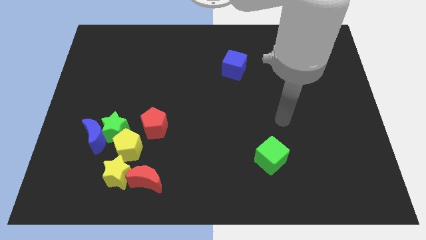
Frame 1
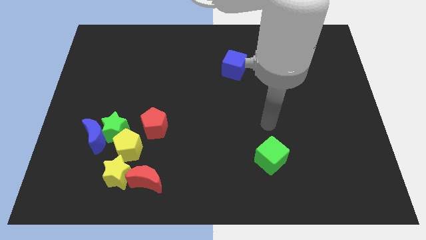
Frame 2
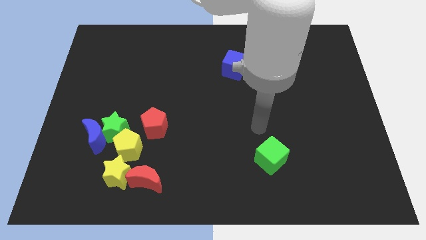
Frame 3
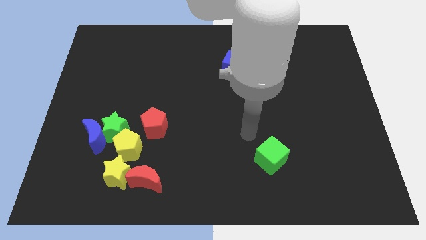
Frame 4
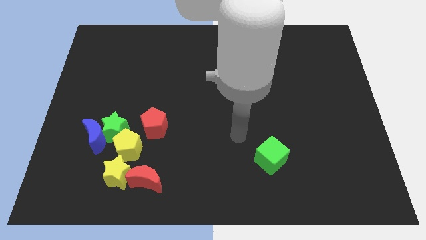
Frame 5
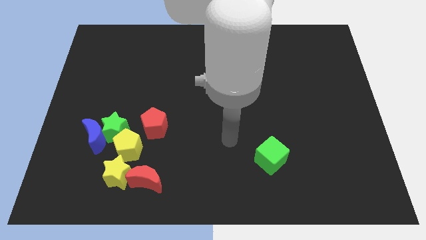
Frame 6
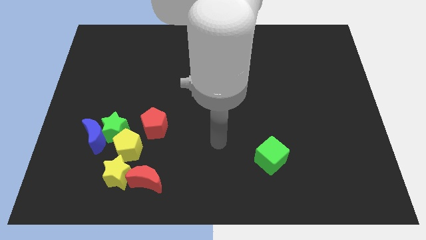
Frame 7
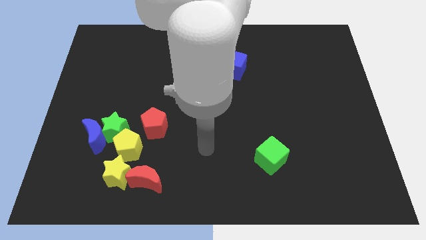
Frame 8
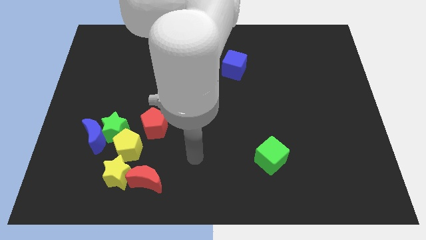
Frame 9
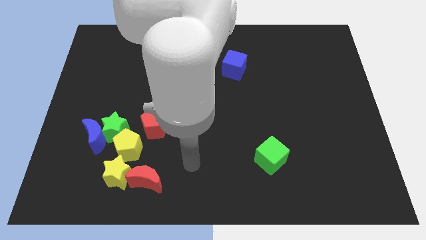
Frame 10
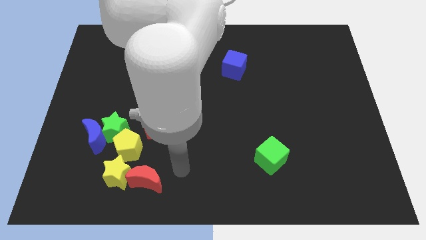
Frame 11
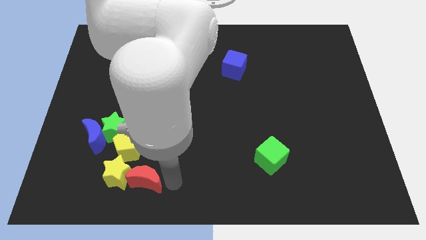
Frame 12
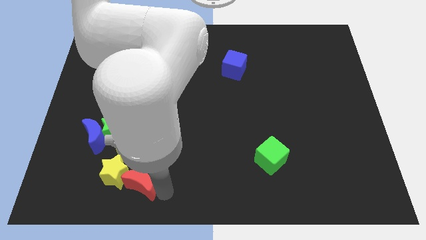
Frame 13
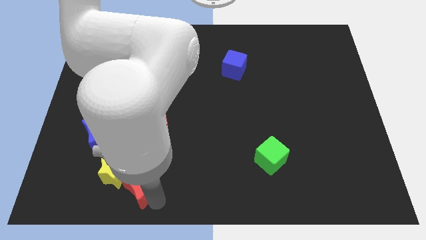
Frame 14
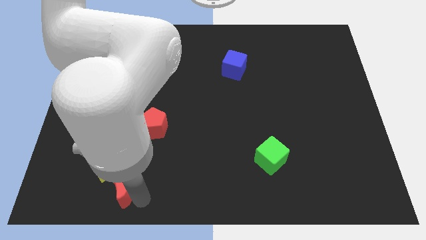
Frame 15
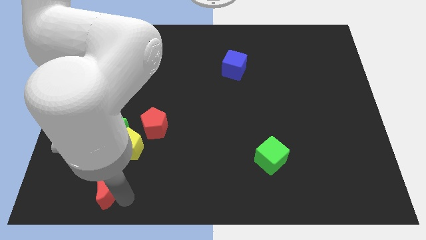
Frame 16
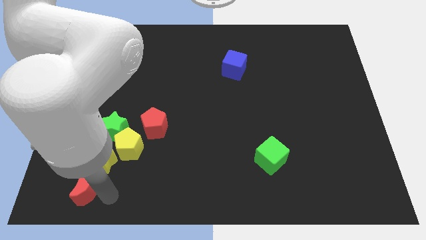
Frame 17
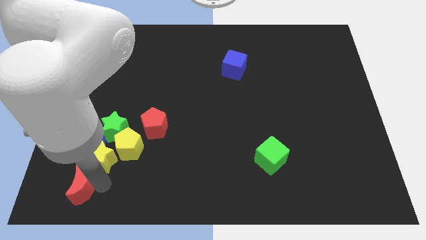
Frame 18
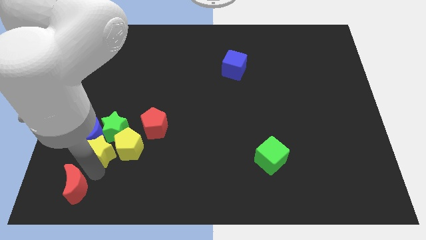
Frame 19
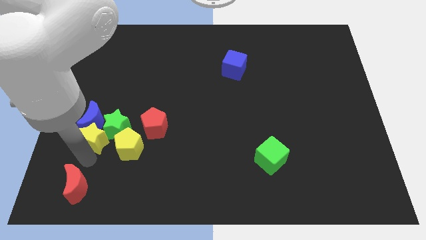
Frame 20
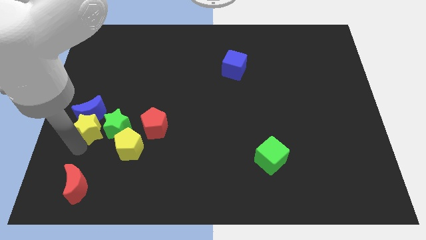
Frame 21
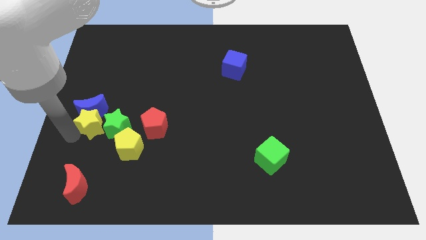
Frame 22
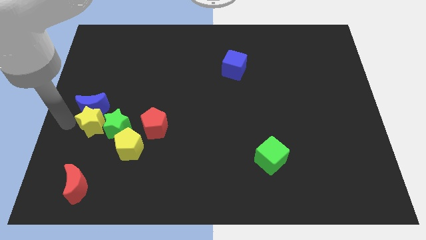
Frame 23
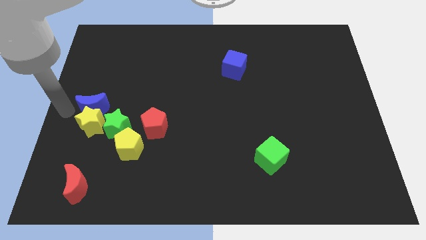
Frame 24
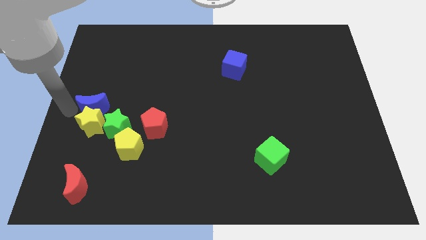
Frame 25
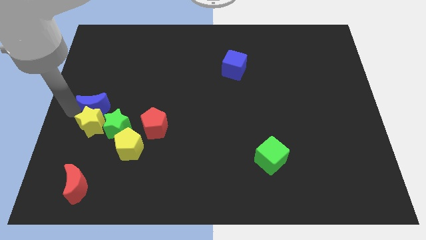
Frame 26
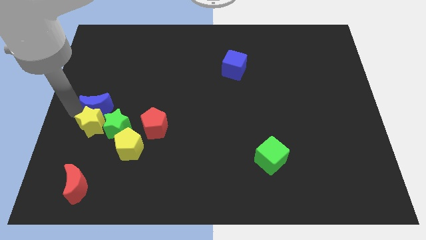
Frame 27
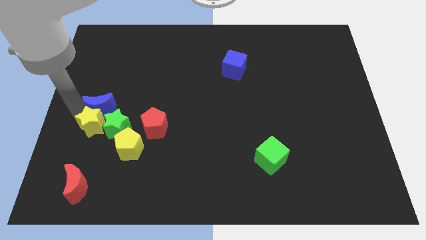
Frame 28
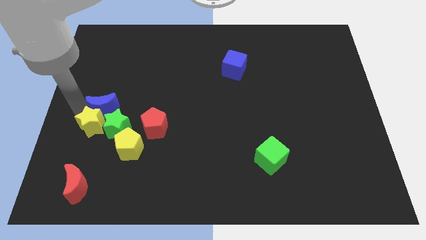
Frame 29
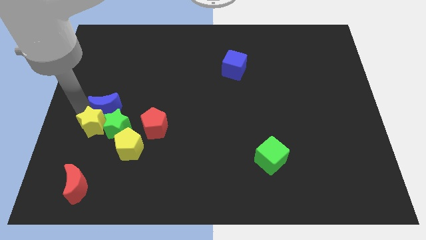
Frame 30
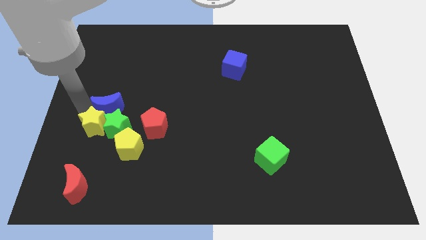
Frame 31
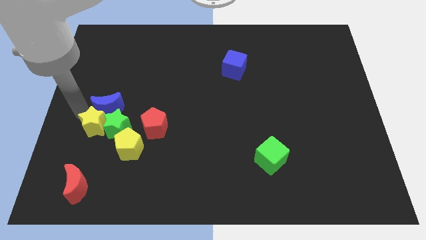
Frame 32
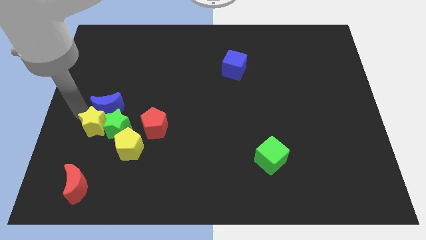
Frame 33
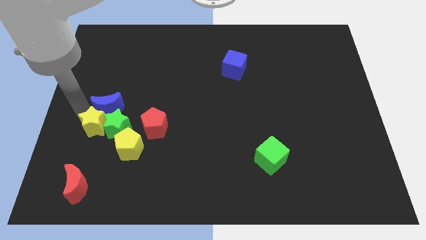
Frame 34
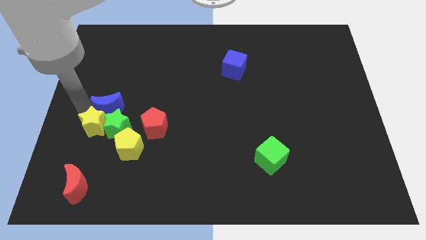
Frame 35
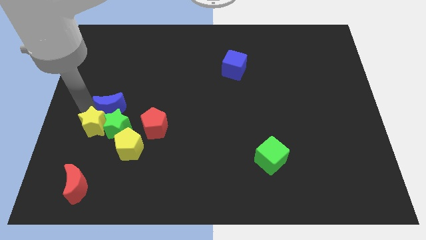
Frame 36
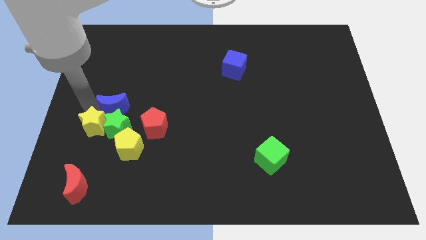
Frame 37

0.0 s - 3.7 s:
move the blue moon up and to the right diagonally a little bit

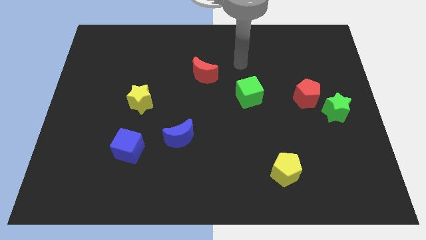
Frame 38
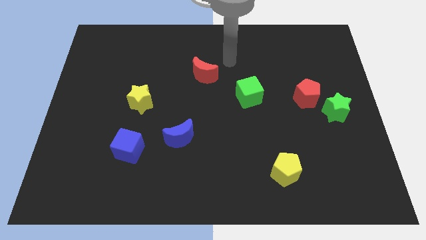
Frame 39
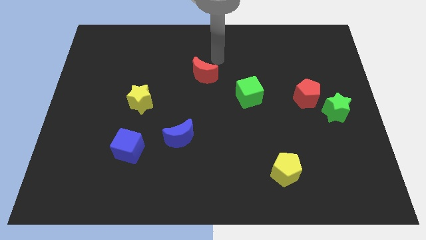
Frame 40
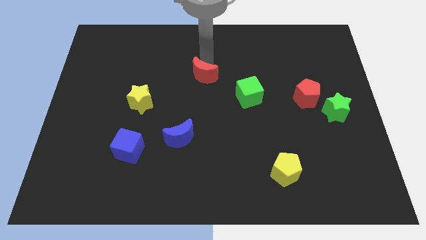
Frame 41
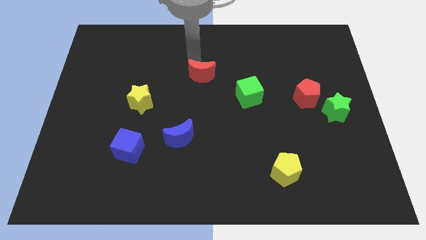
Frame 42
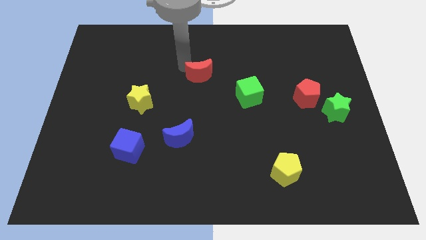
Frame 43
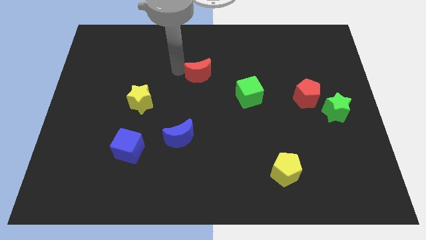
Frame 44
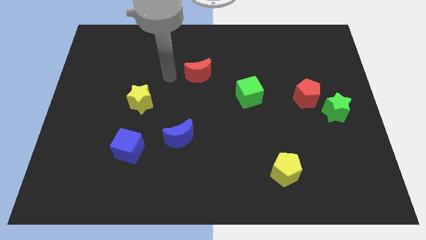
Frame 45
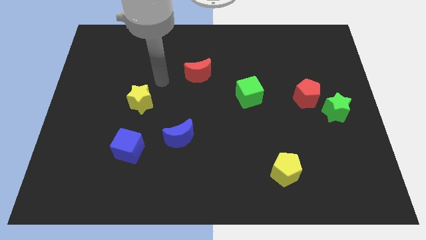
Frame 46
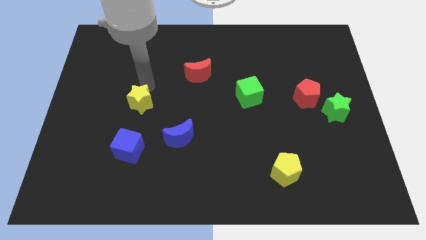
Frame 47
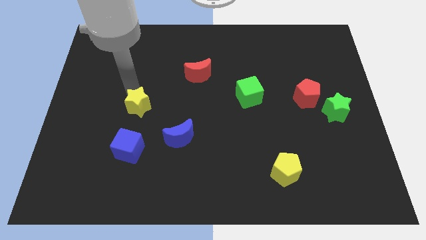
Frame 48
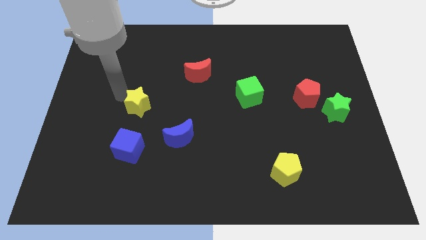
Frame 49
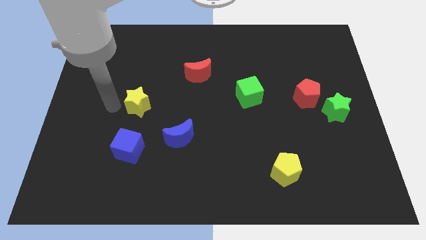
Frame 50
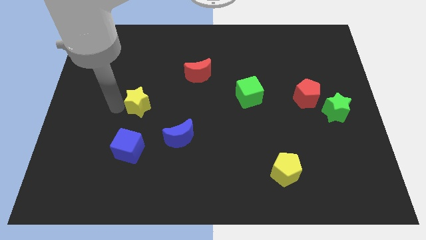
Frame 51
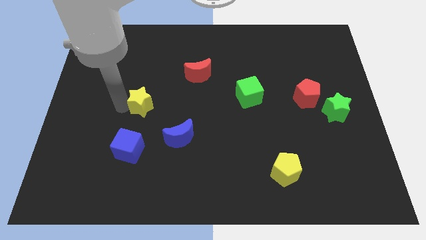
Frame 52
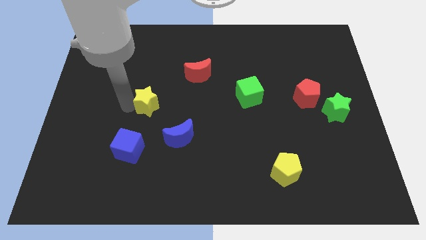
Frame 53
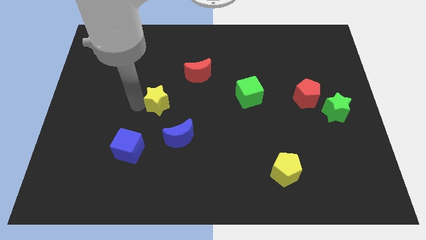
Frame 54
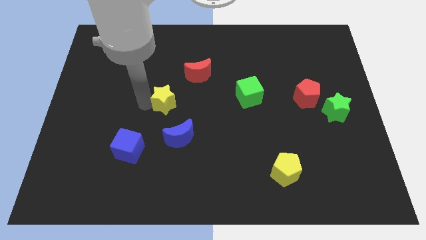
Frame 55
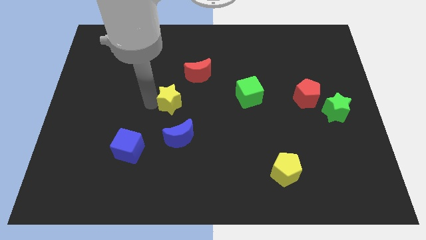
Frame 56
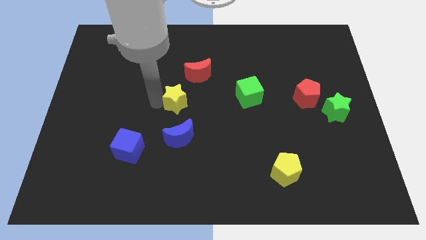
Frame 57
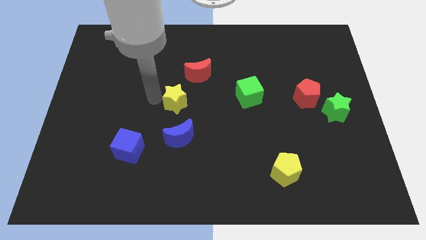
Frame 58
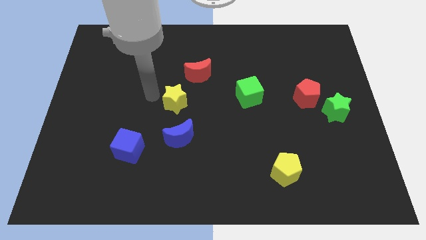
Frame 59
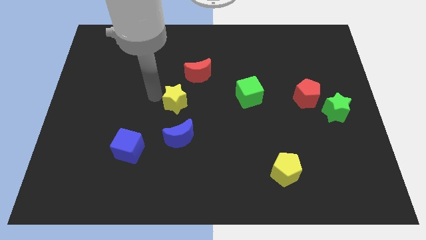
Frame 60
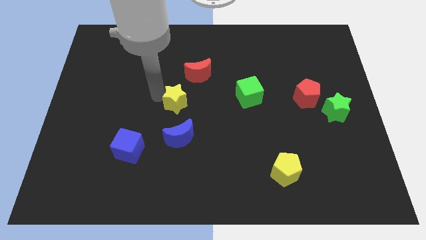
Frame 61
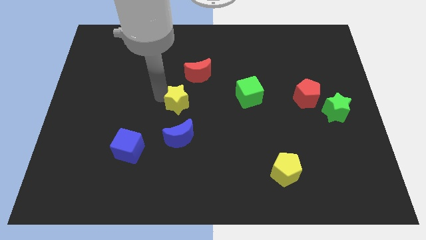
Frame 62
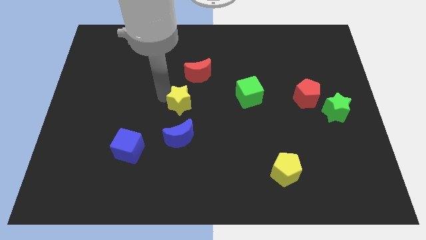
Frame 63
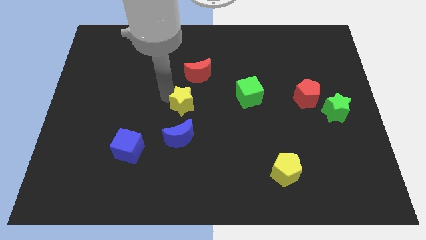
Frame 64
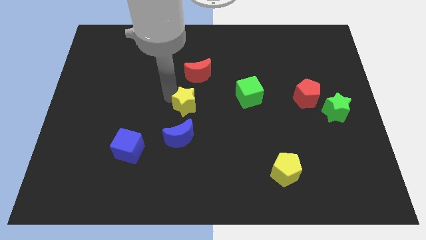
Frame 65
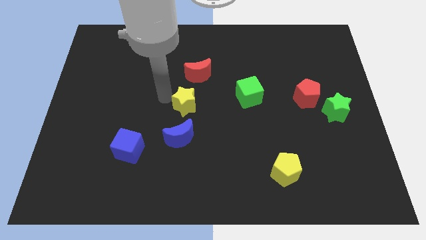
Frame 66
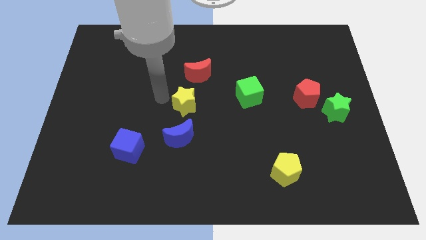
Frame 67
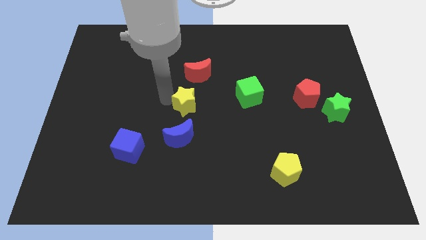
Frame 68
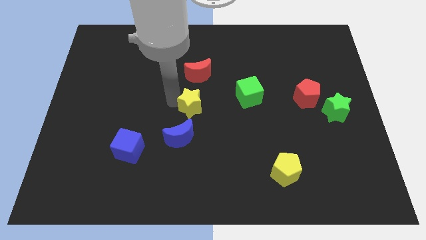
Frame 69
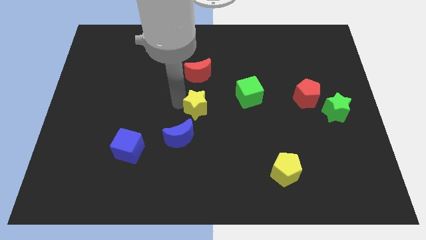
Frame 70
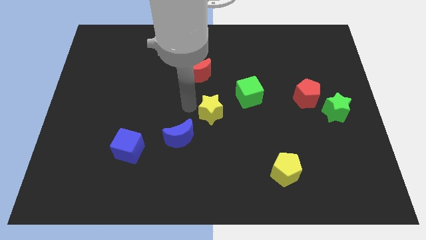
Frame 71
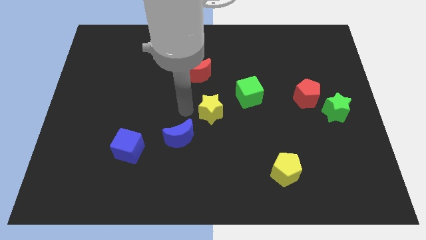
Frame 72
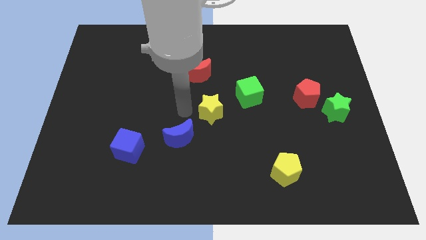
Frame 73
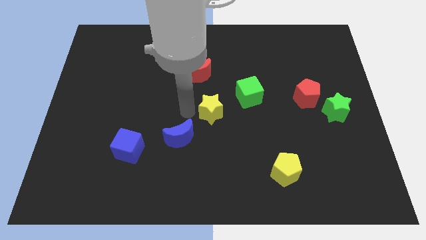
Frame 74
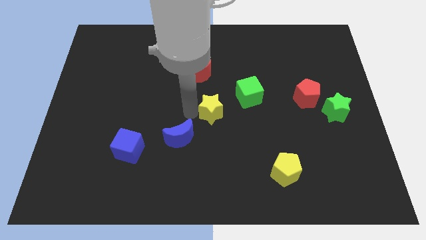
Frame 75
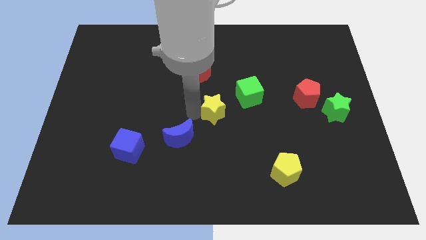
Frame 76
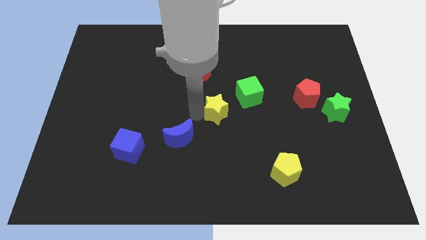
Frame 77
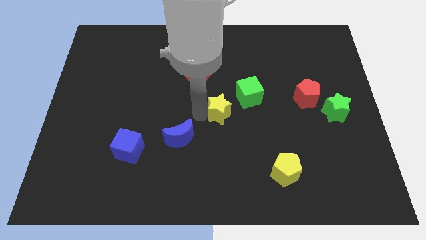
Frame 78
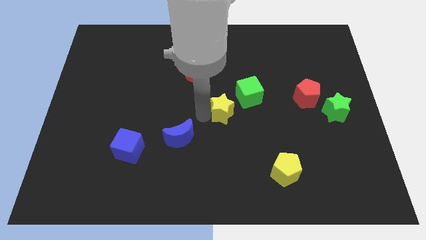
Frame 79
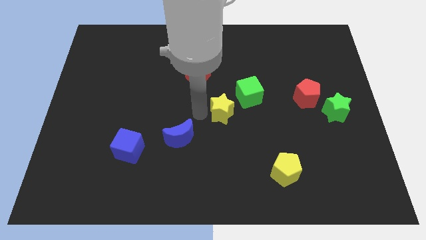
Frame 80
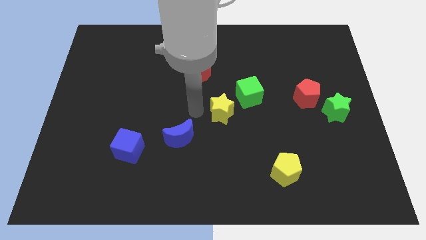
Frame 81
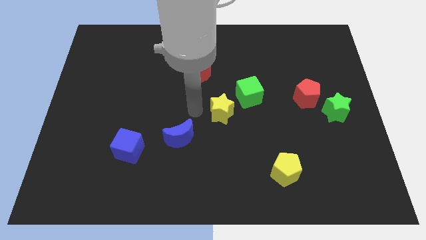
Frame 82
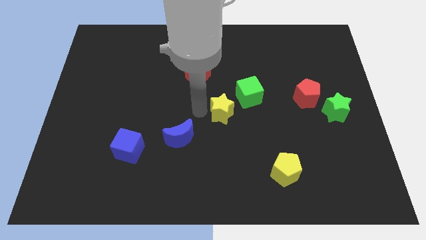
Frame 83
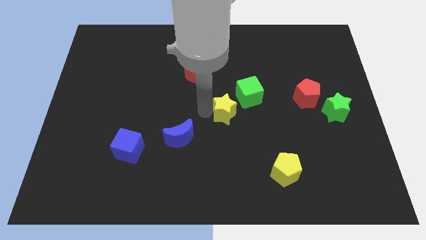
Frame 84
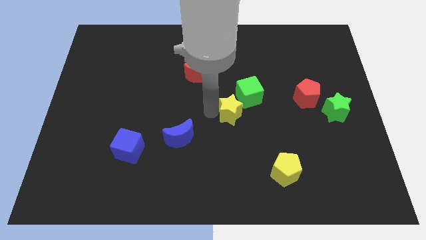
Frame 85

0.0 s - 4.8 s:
slide the yellow star right

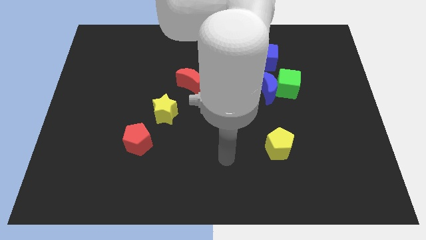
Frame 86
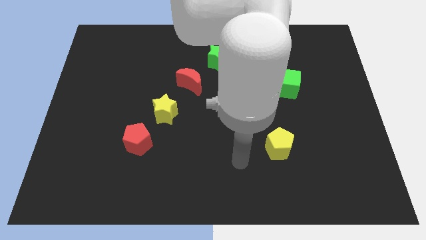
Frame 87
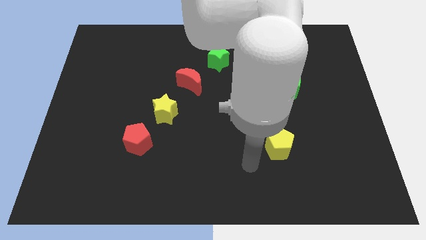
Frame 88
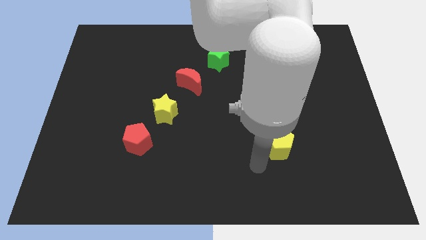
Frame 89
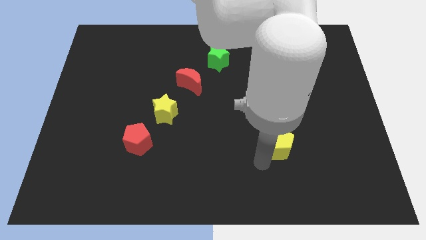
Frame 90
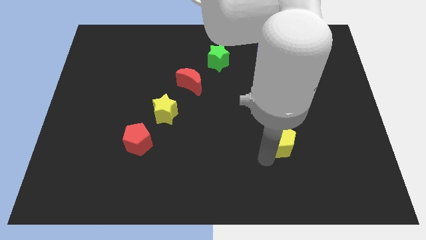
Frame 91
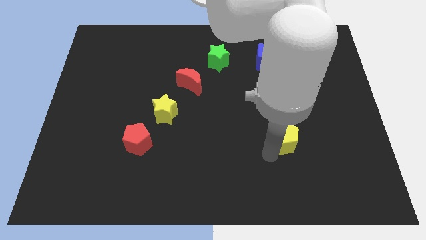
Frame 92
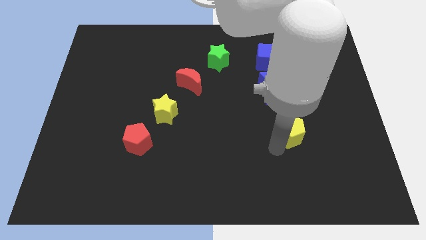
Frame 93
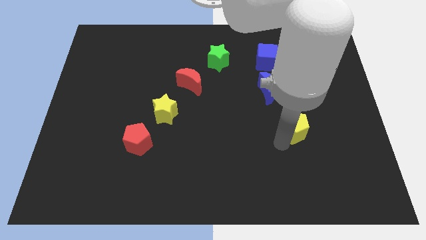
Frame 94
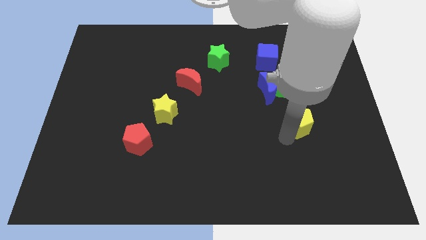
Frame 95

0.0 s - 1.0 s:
push the yellow pentagon up and then to the right a bit
